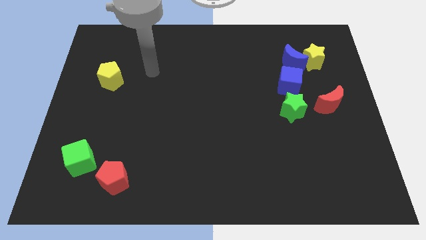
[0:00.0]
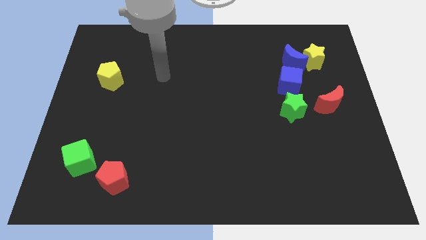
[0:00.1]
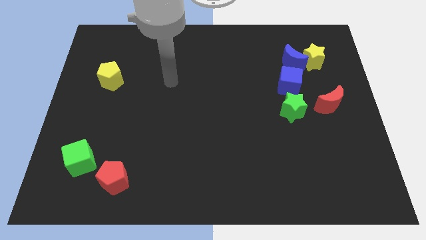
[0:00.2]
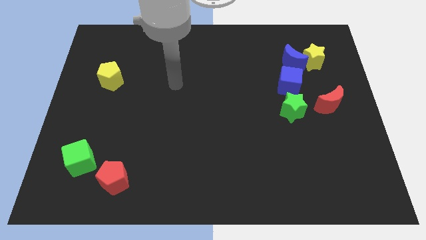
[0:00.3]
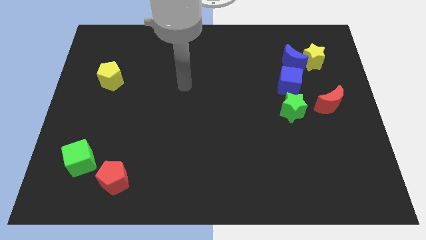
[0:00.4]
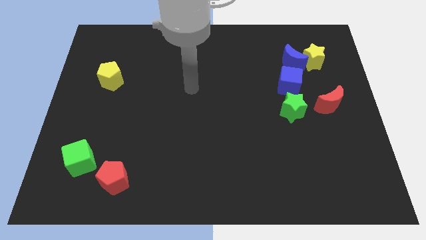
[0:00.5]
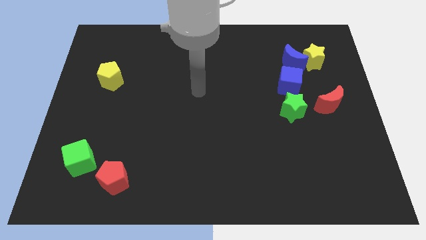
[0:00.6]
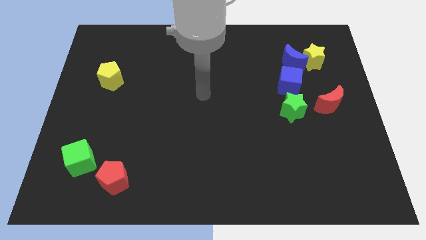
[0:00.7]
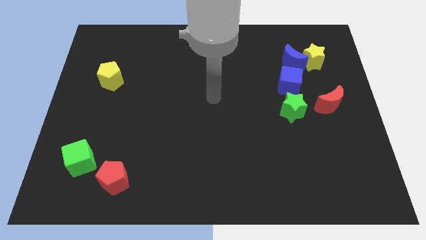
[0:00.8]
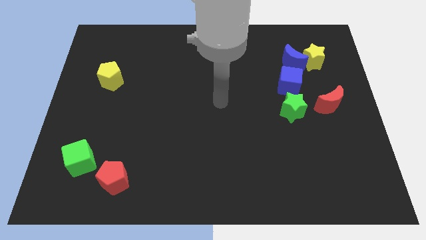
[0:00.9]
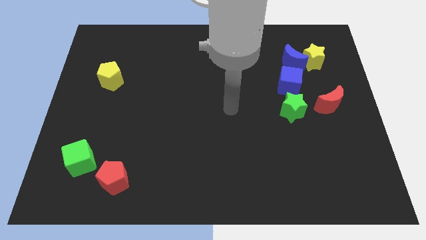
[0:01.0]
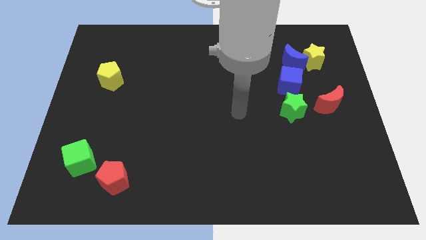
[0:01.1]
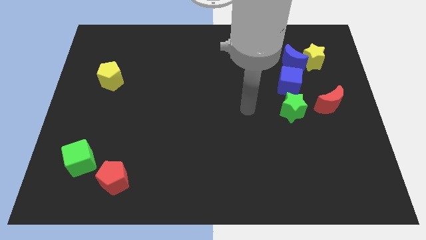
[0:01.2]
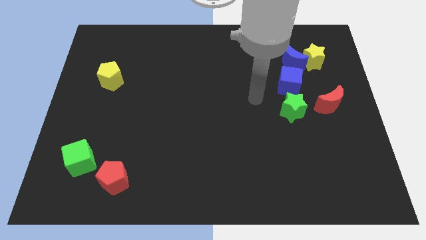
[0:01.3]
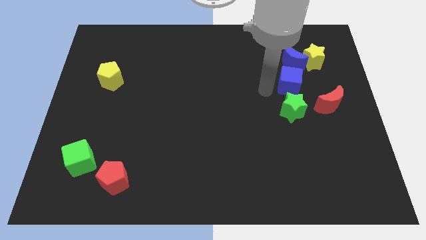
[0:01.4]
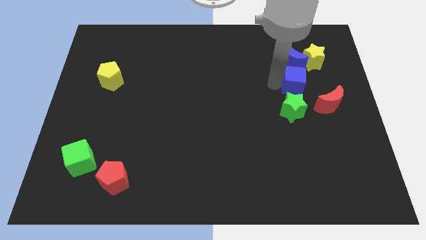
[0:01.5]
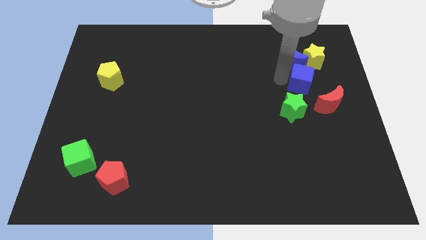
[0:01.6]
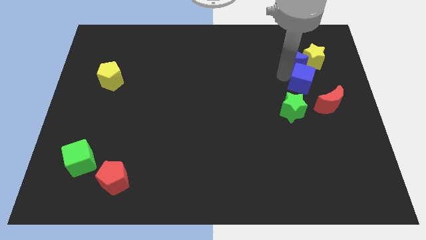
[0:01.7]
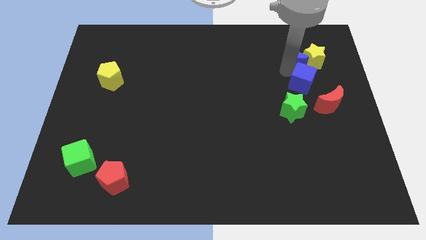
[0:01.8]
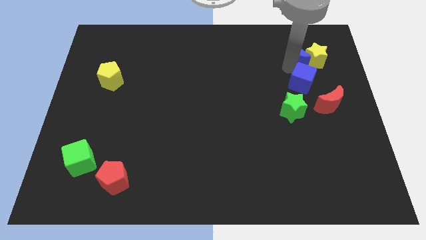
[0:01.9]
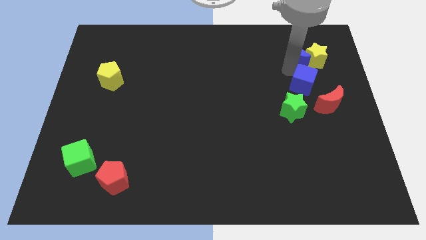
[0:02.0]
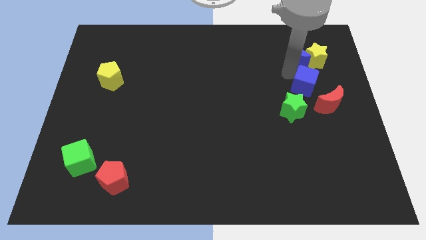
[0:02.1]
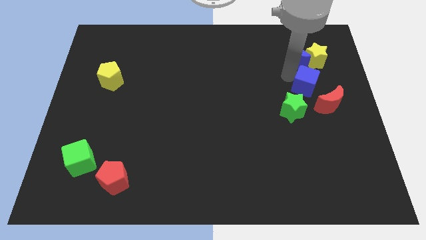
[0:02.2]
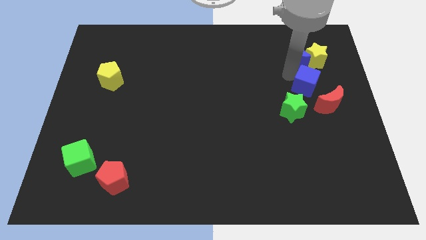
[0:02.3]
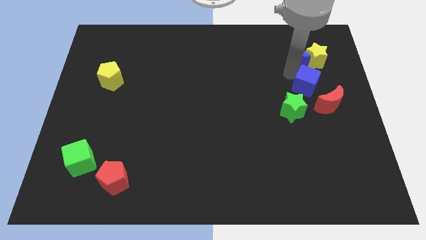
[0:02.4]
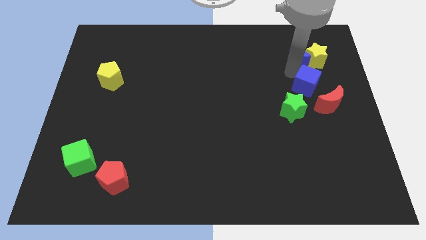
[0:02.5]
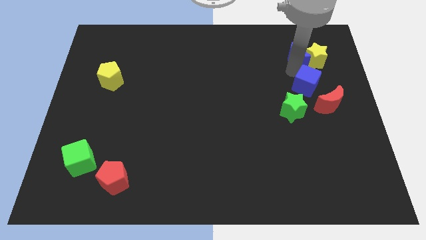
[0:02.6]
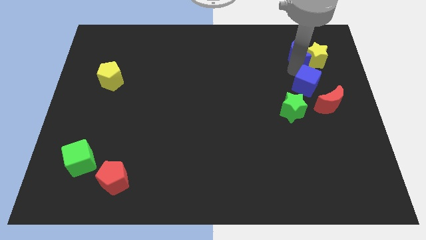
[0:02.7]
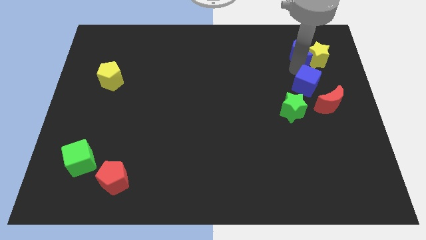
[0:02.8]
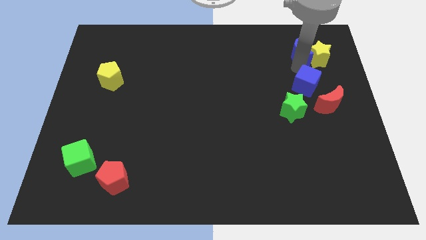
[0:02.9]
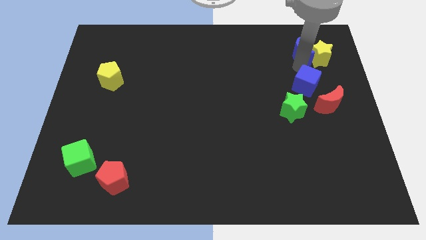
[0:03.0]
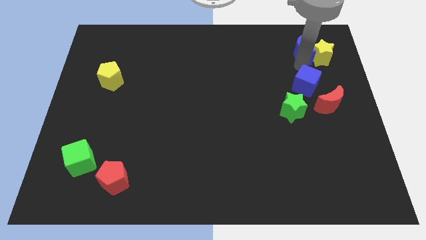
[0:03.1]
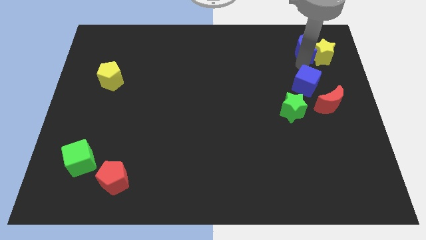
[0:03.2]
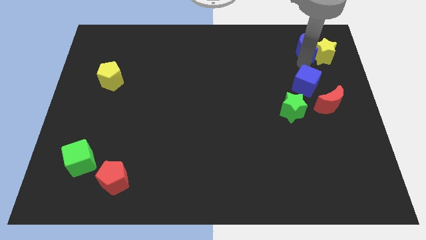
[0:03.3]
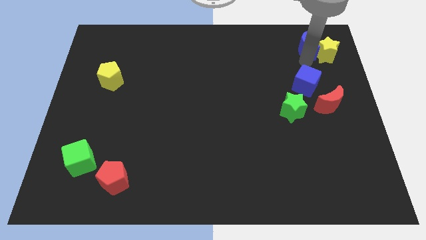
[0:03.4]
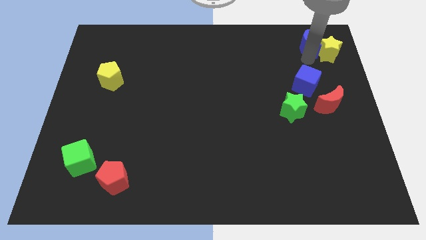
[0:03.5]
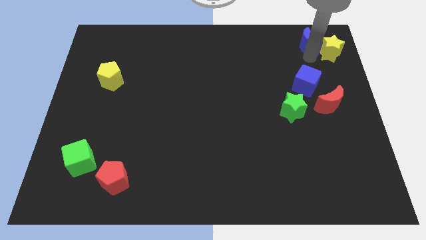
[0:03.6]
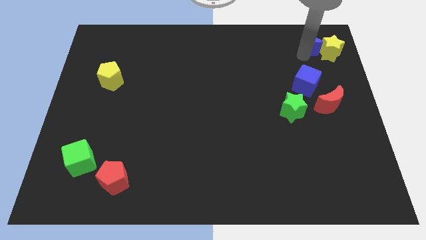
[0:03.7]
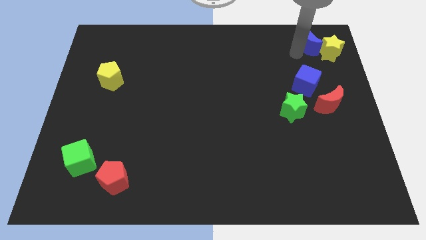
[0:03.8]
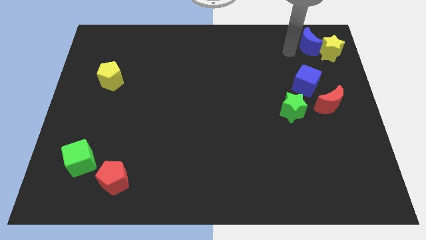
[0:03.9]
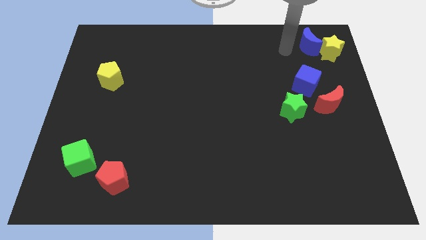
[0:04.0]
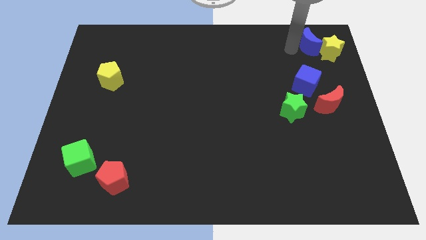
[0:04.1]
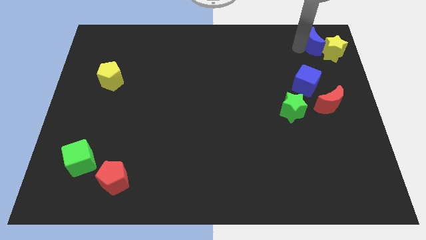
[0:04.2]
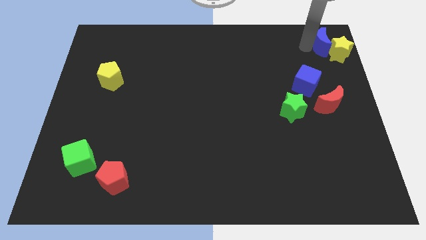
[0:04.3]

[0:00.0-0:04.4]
push the blue moon to the top right

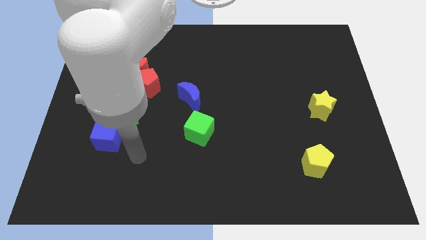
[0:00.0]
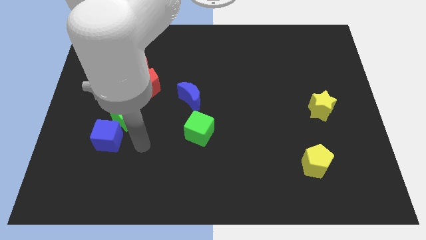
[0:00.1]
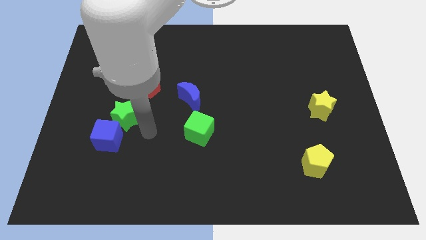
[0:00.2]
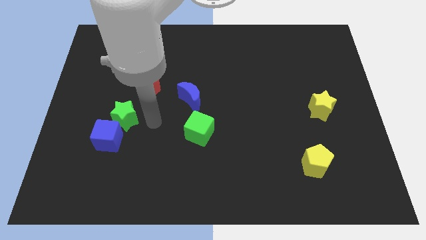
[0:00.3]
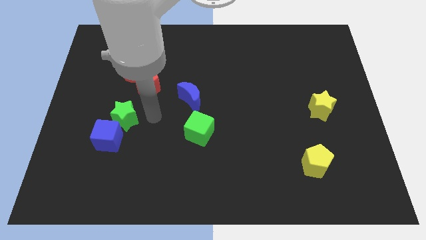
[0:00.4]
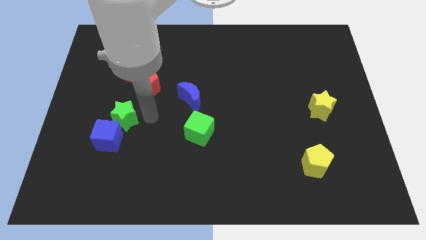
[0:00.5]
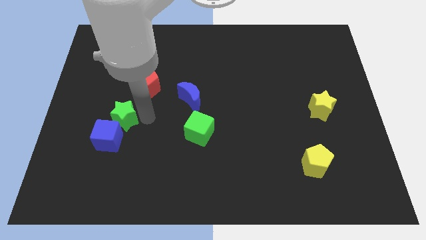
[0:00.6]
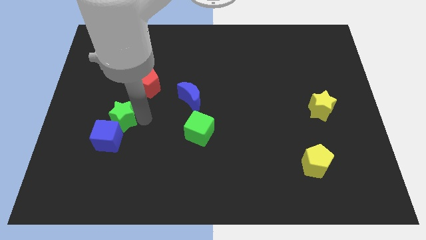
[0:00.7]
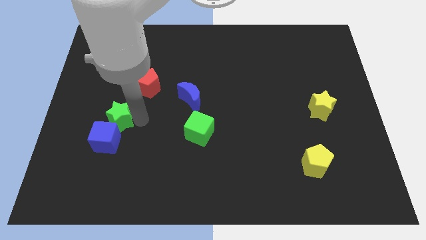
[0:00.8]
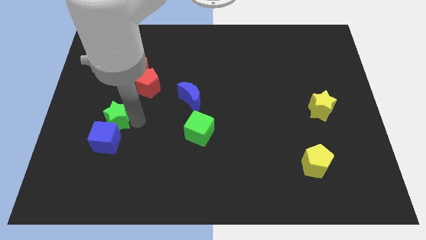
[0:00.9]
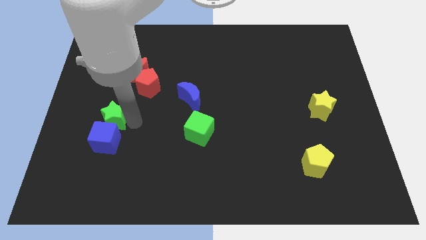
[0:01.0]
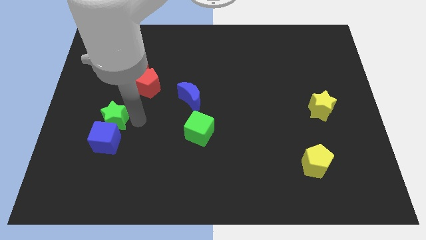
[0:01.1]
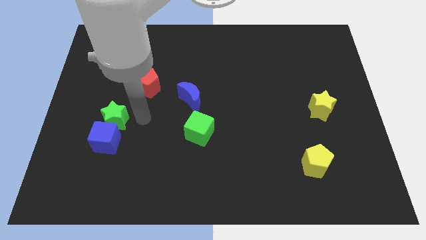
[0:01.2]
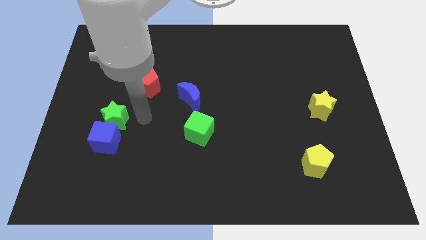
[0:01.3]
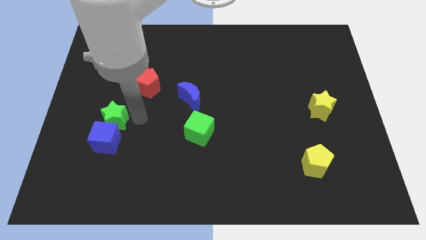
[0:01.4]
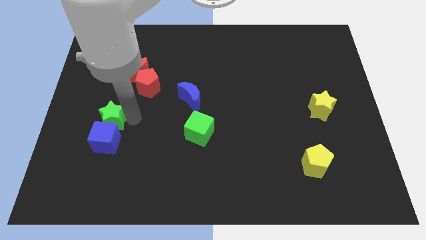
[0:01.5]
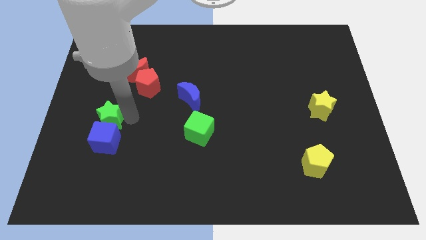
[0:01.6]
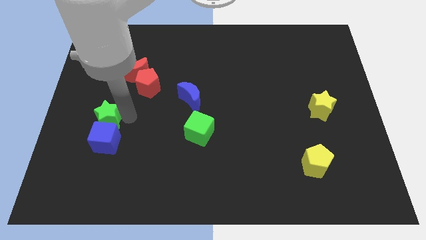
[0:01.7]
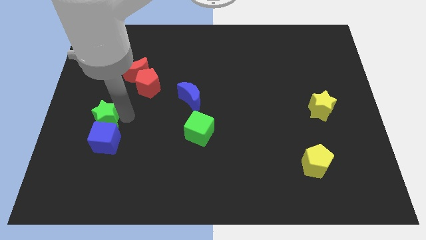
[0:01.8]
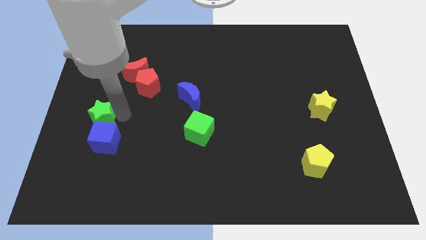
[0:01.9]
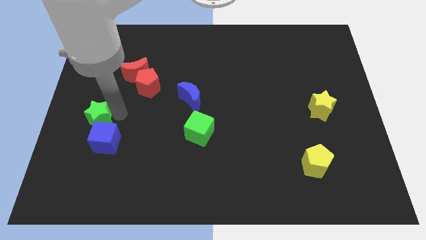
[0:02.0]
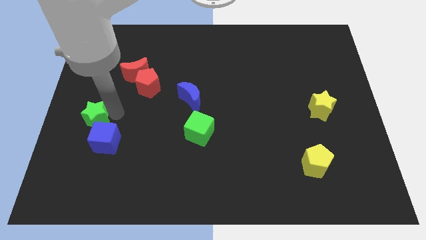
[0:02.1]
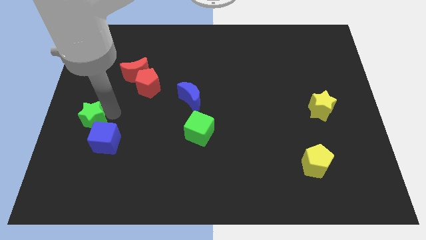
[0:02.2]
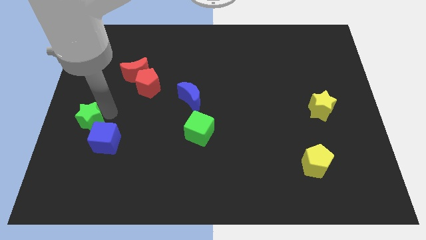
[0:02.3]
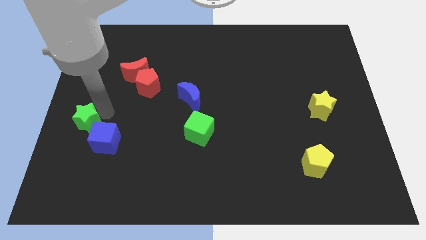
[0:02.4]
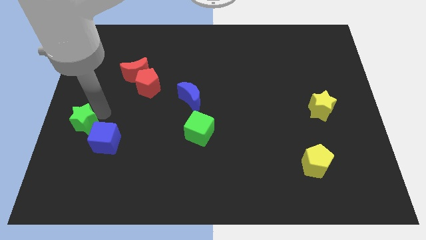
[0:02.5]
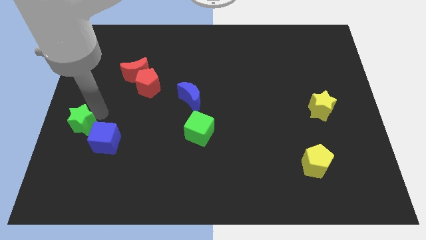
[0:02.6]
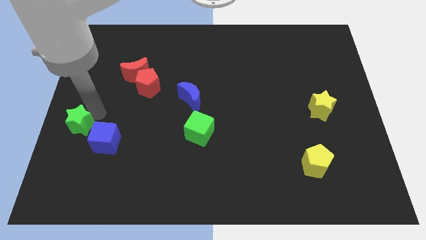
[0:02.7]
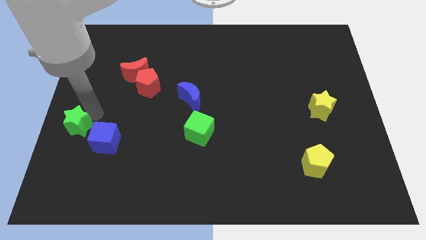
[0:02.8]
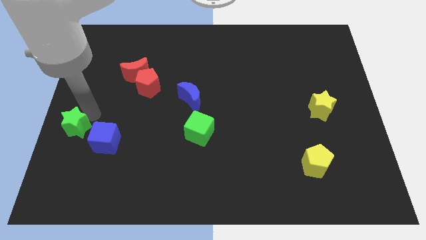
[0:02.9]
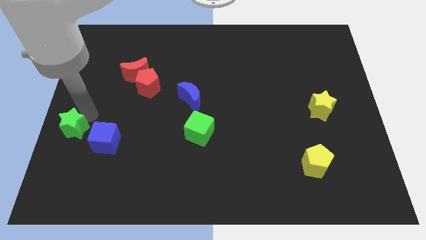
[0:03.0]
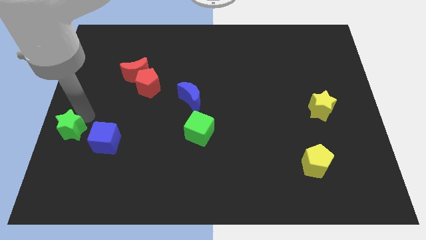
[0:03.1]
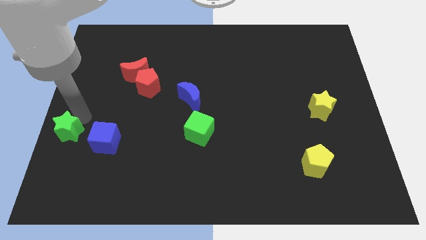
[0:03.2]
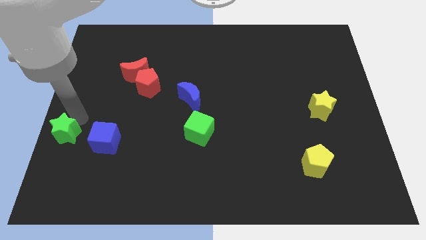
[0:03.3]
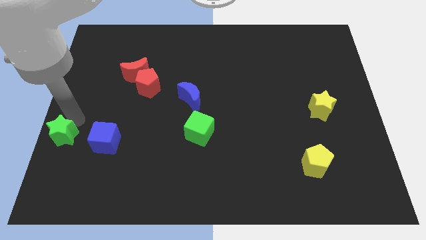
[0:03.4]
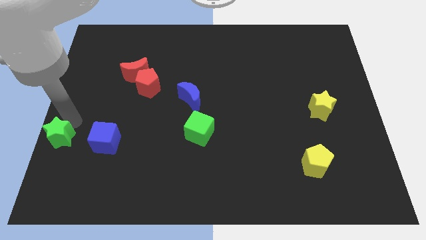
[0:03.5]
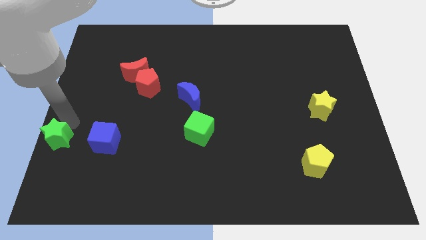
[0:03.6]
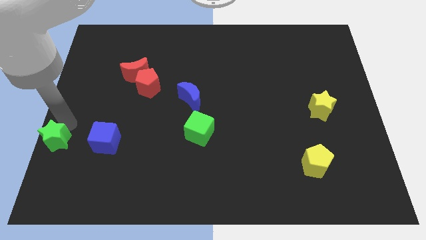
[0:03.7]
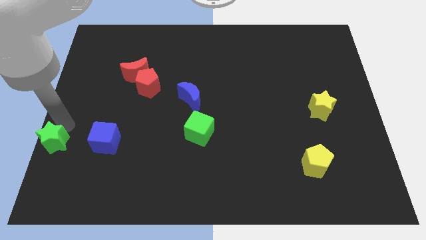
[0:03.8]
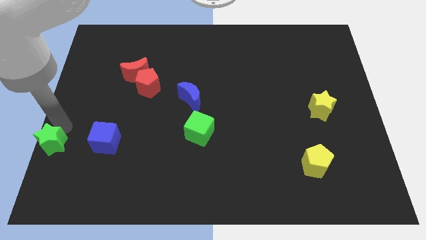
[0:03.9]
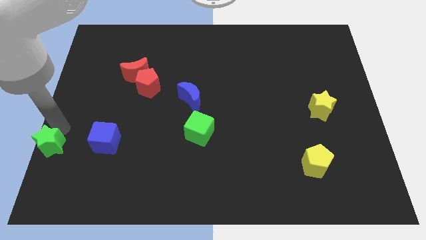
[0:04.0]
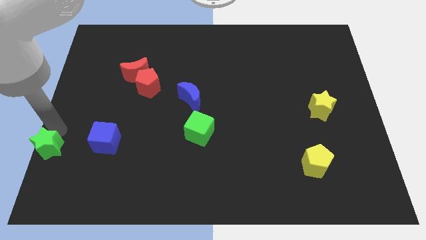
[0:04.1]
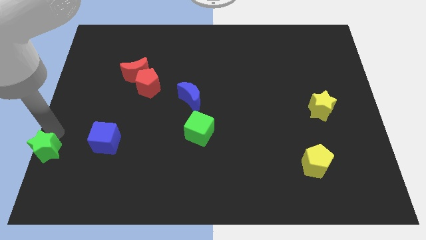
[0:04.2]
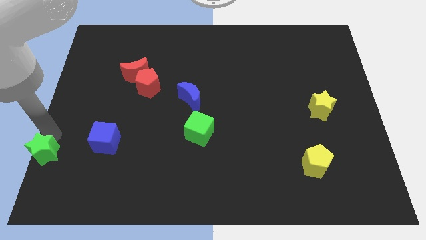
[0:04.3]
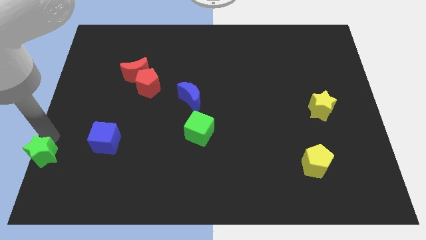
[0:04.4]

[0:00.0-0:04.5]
move the green star to the bottom left of the board
